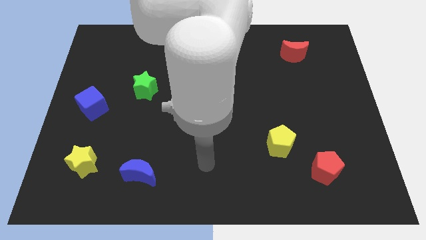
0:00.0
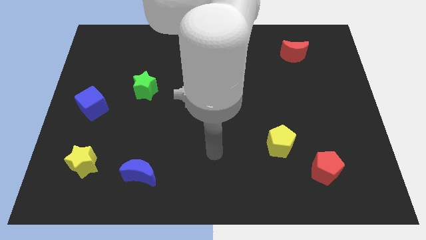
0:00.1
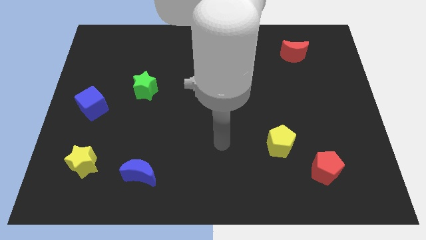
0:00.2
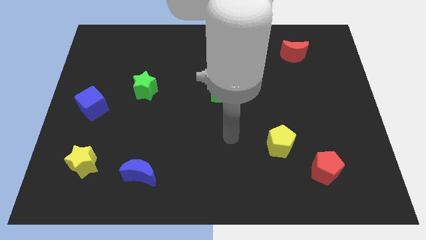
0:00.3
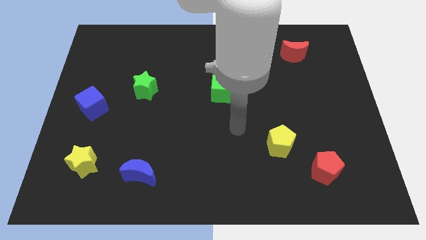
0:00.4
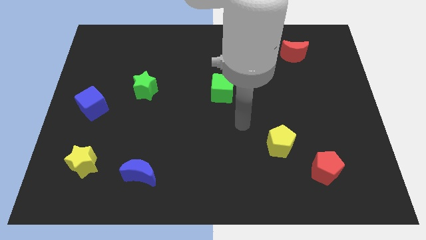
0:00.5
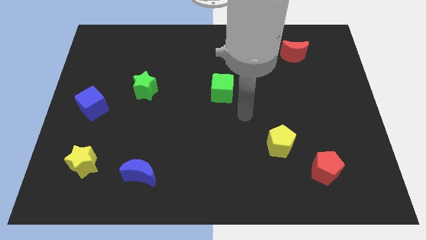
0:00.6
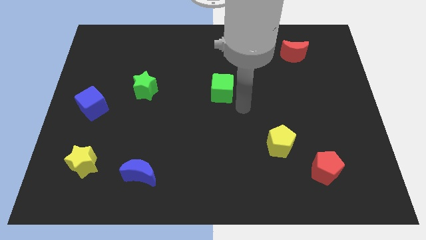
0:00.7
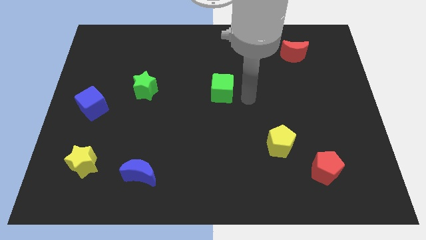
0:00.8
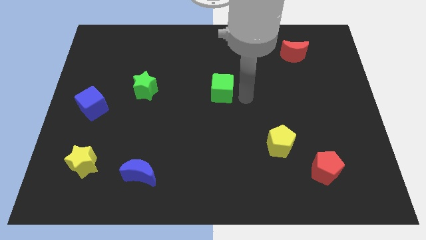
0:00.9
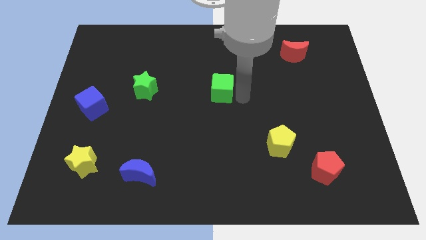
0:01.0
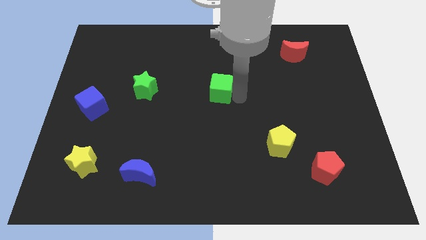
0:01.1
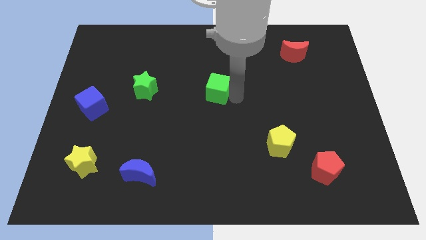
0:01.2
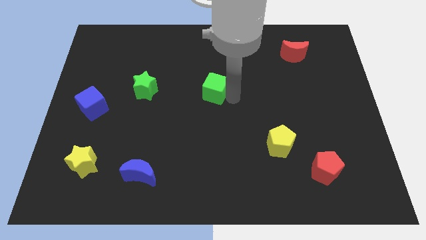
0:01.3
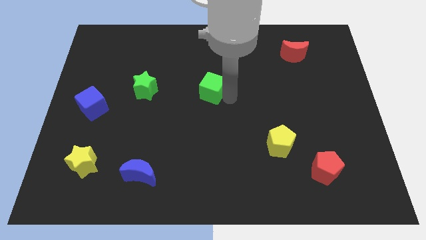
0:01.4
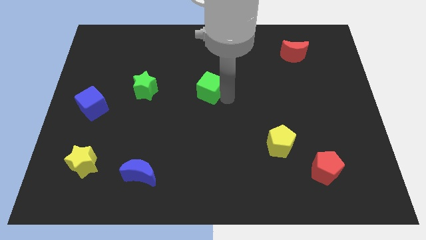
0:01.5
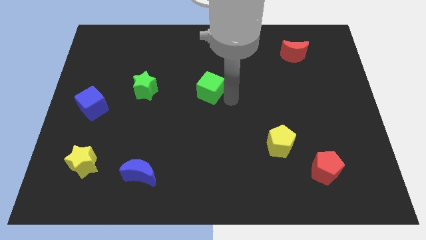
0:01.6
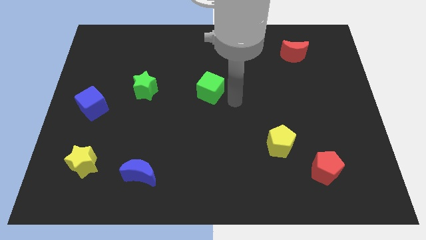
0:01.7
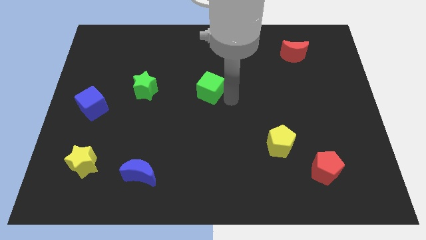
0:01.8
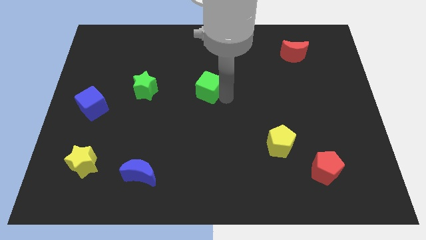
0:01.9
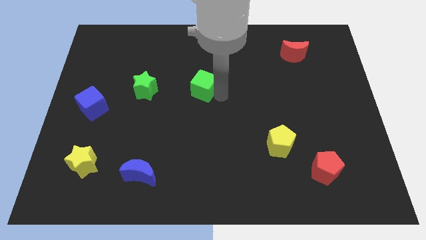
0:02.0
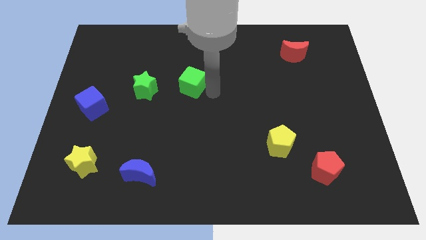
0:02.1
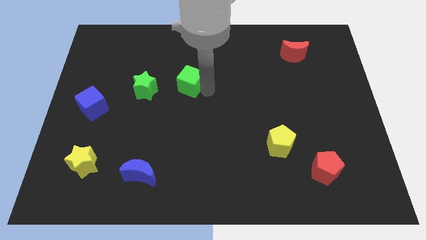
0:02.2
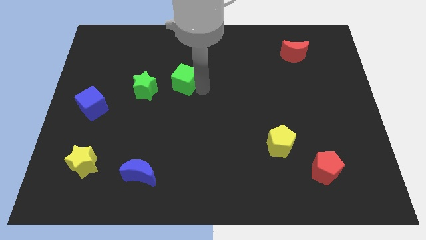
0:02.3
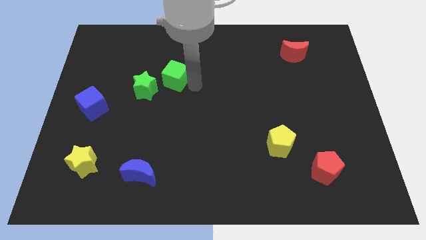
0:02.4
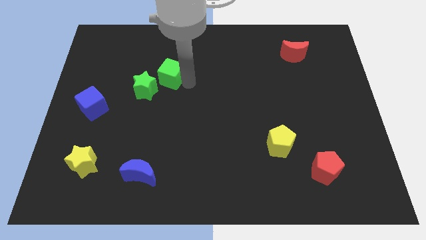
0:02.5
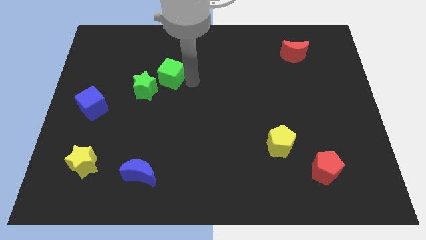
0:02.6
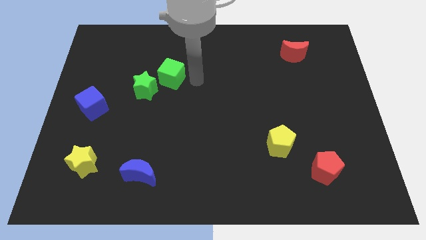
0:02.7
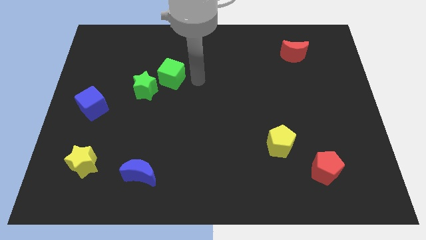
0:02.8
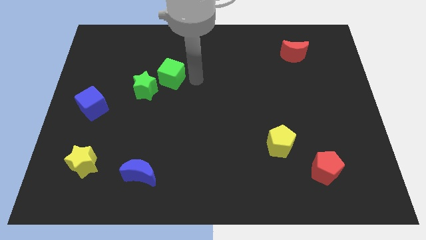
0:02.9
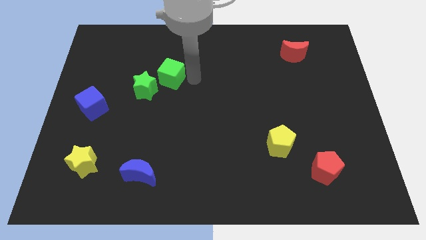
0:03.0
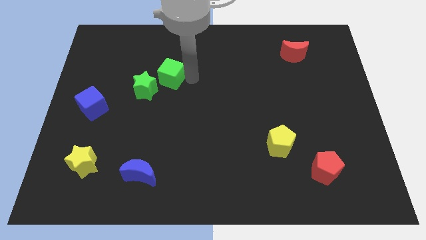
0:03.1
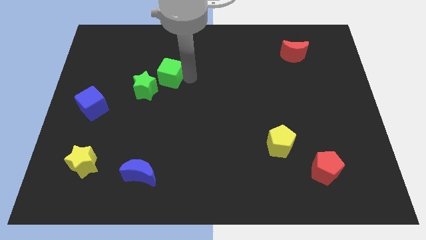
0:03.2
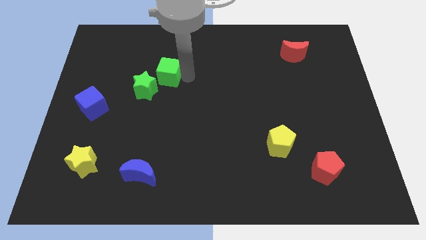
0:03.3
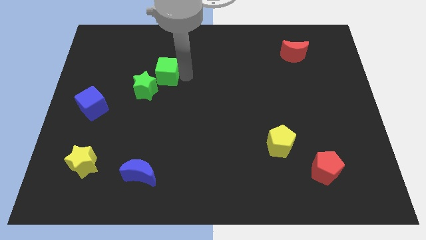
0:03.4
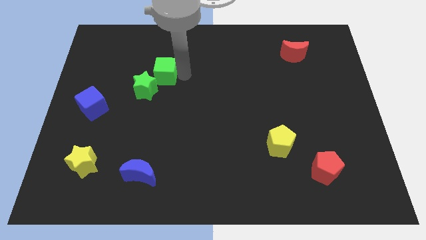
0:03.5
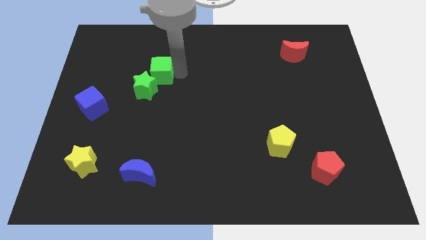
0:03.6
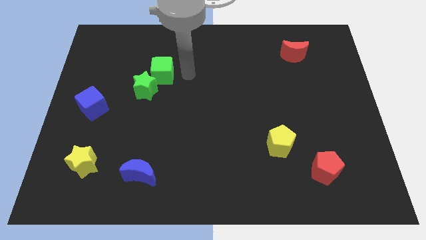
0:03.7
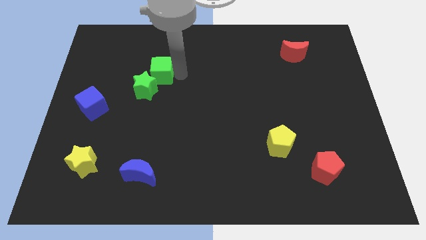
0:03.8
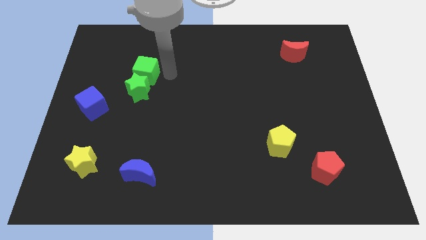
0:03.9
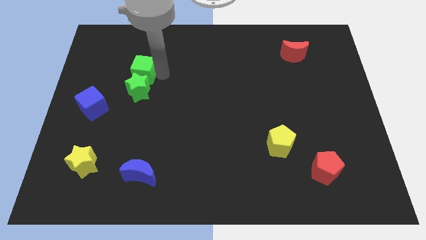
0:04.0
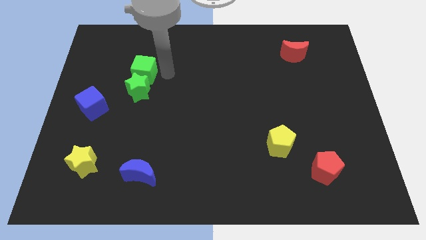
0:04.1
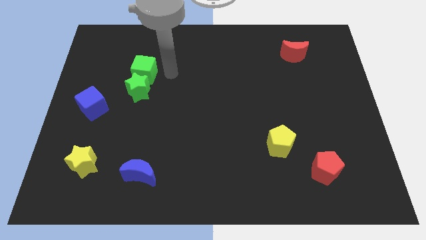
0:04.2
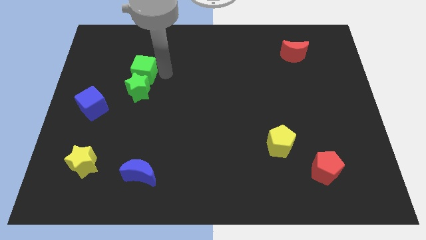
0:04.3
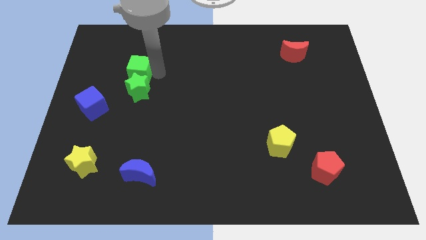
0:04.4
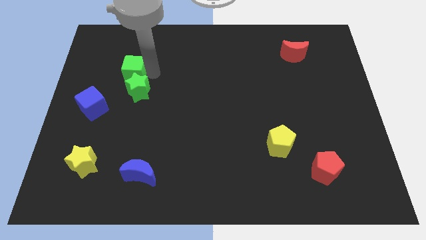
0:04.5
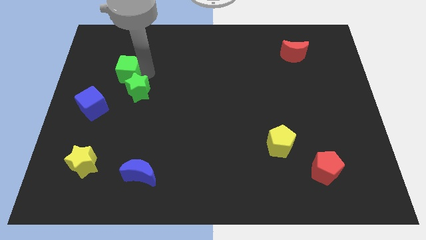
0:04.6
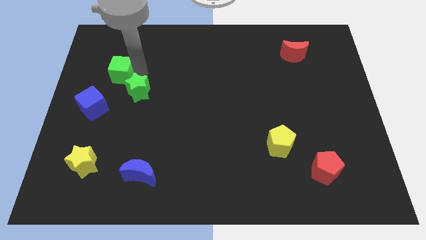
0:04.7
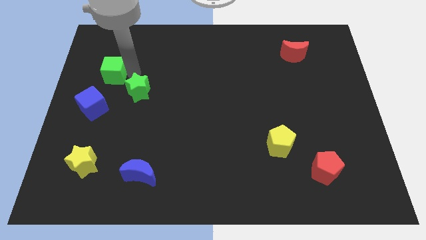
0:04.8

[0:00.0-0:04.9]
put the green cube to the top side of the blue cube

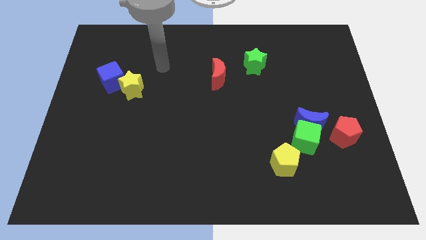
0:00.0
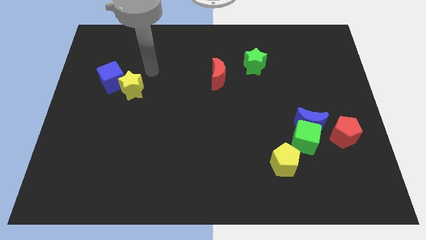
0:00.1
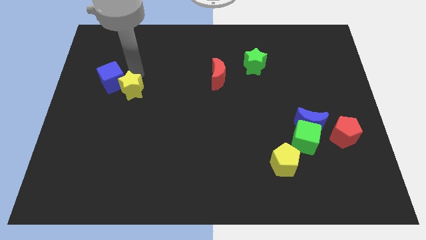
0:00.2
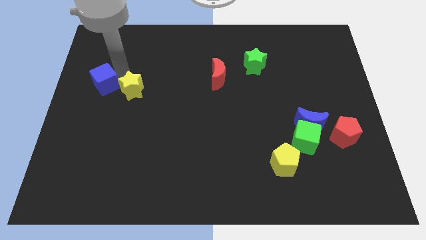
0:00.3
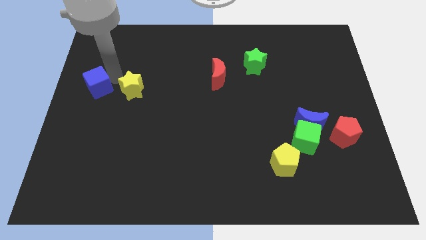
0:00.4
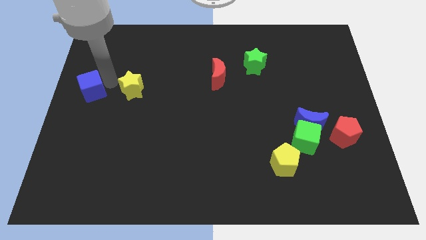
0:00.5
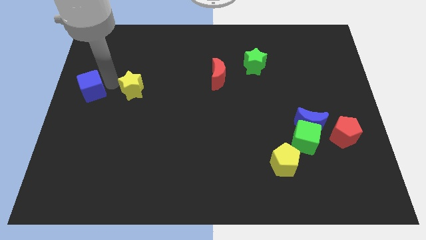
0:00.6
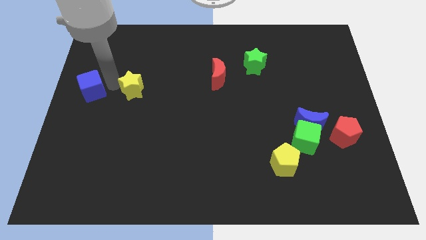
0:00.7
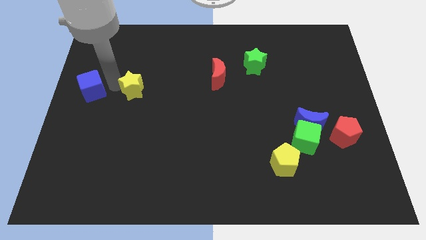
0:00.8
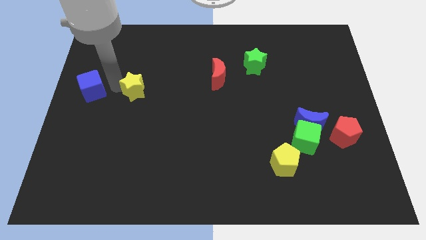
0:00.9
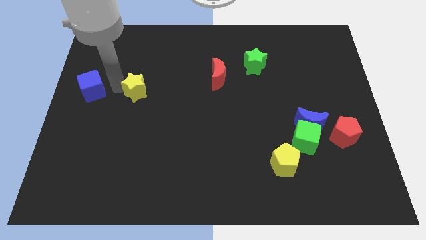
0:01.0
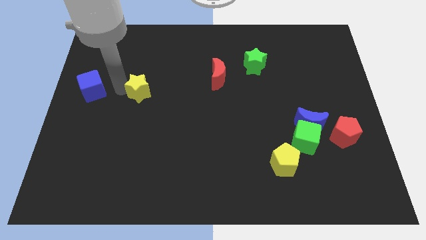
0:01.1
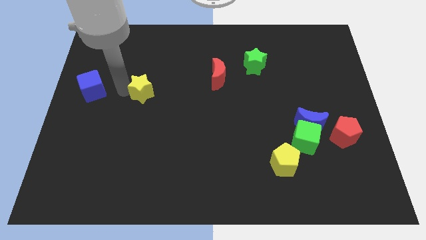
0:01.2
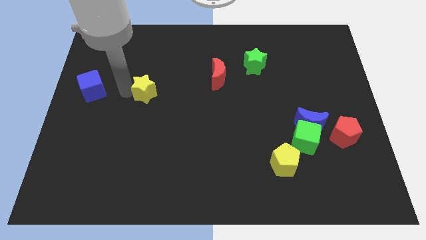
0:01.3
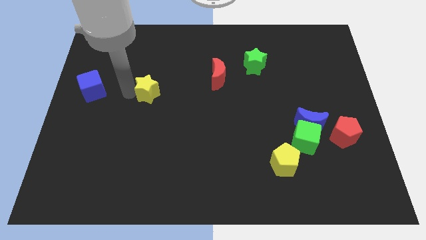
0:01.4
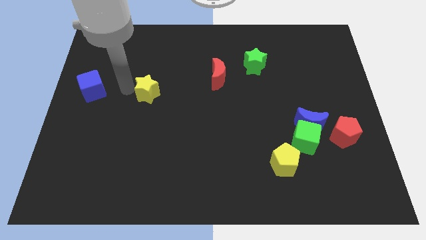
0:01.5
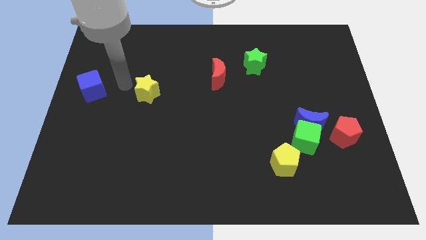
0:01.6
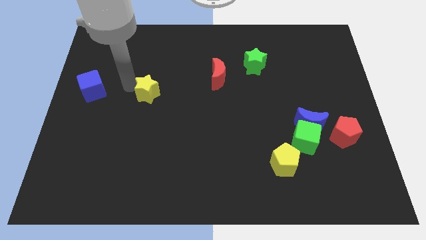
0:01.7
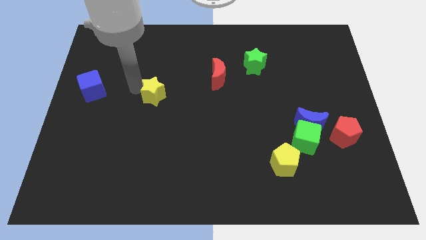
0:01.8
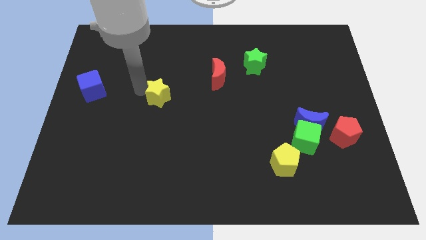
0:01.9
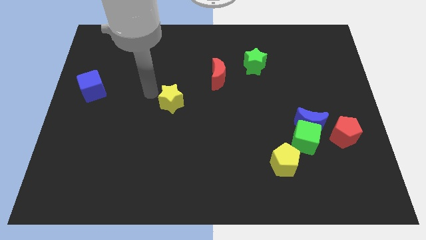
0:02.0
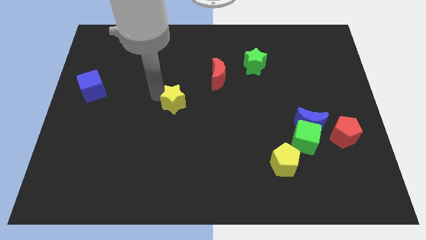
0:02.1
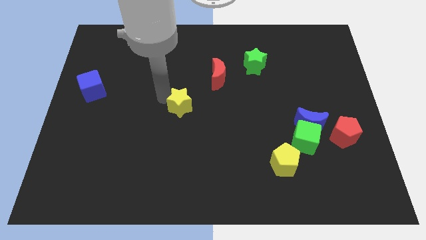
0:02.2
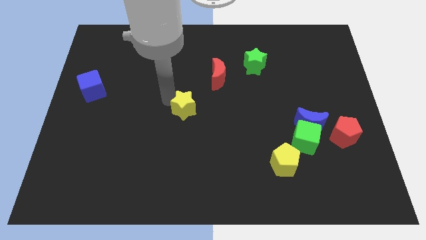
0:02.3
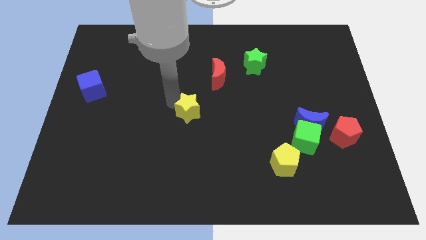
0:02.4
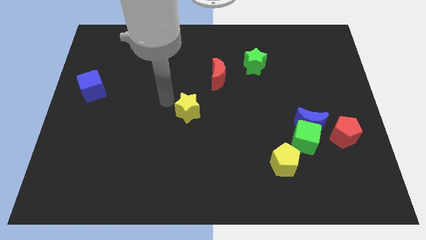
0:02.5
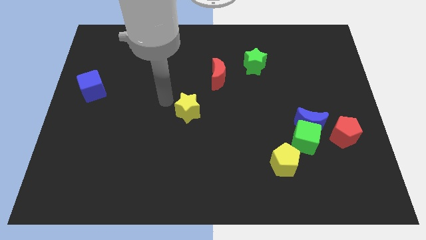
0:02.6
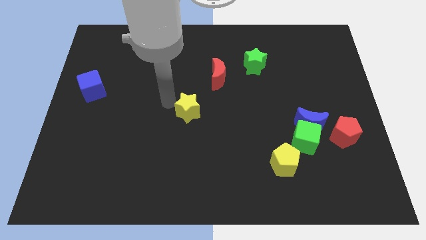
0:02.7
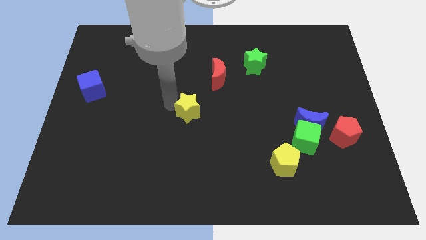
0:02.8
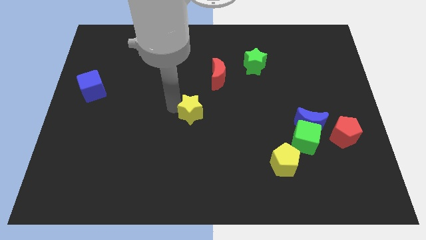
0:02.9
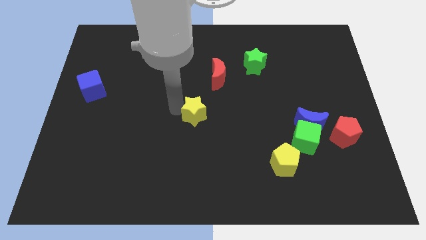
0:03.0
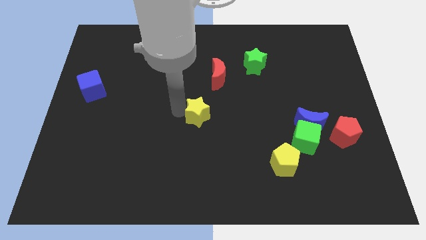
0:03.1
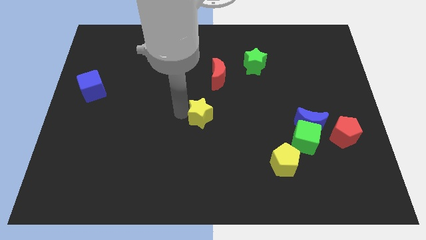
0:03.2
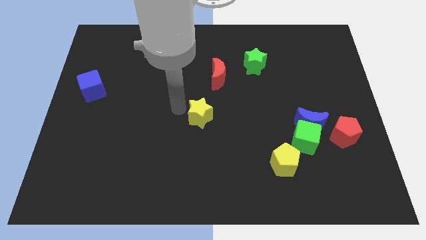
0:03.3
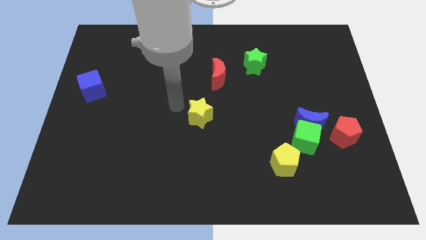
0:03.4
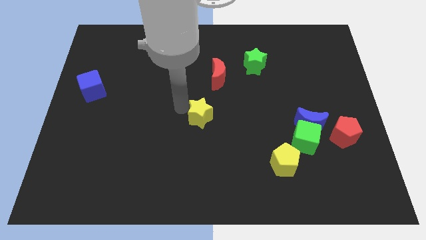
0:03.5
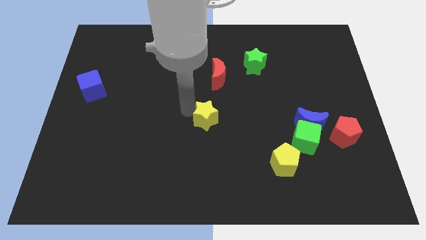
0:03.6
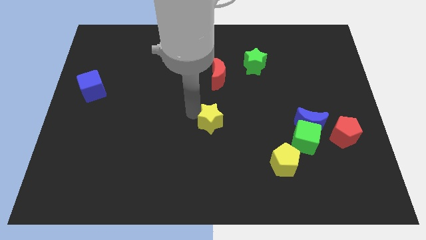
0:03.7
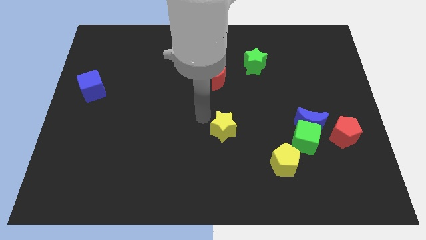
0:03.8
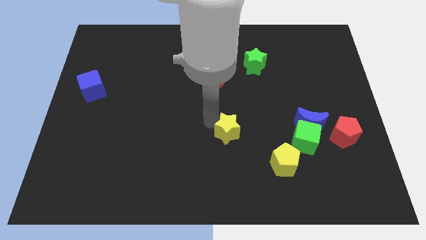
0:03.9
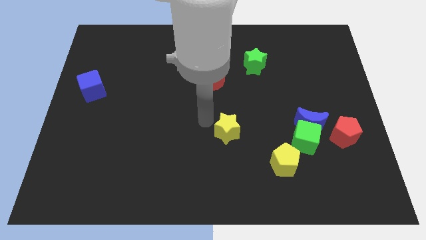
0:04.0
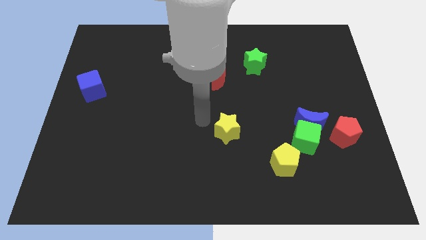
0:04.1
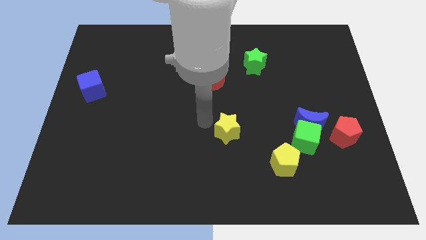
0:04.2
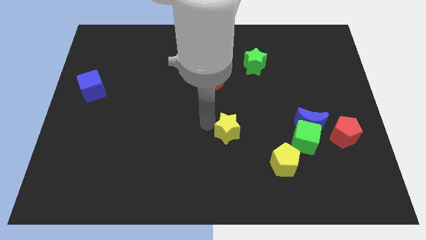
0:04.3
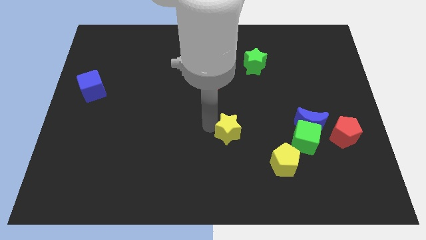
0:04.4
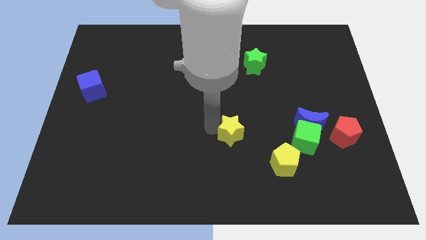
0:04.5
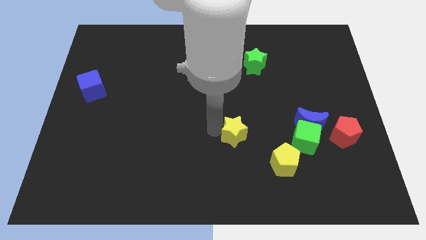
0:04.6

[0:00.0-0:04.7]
push the yellow star diagonally up and to the left of the yellow pentagon
